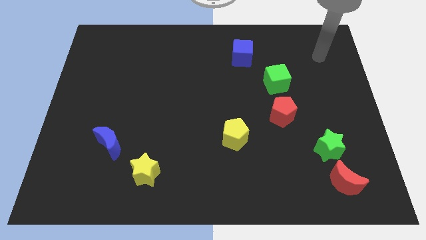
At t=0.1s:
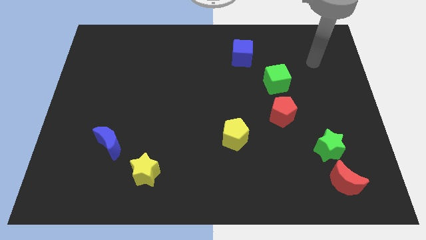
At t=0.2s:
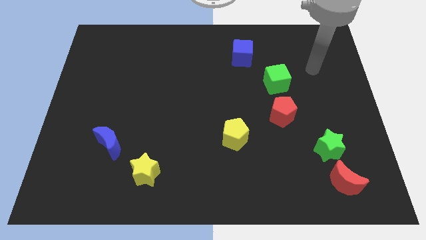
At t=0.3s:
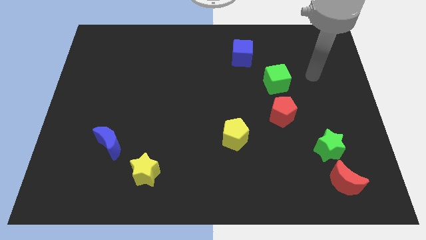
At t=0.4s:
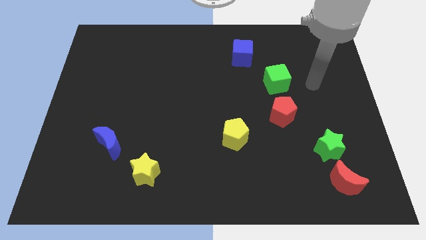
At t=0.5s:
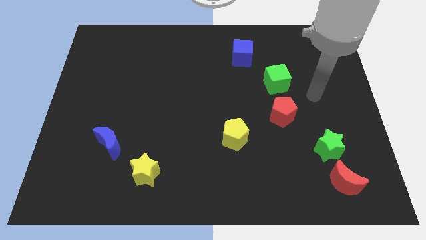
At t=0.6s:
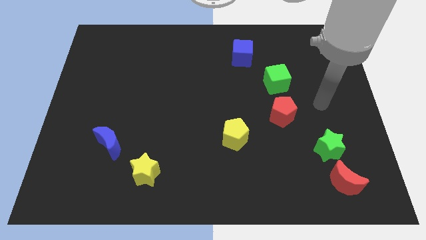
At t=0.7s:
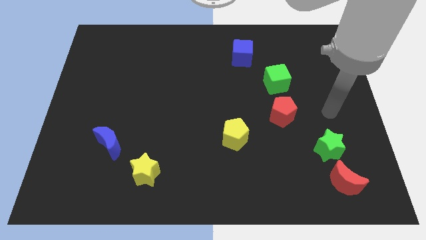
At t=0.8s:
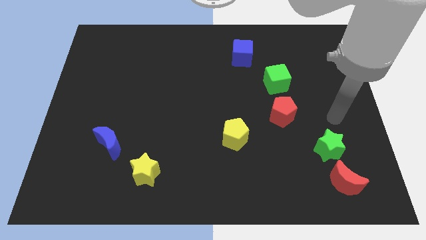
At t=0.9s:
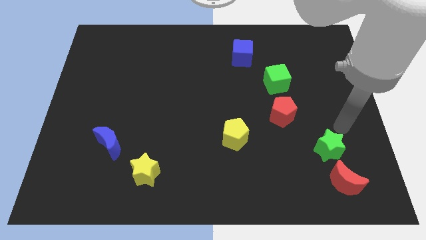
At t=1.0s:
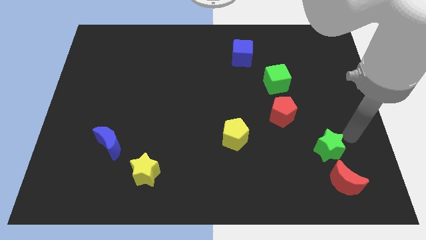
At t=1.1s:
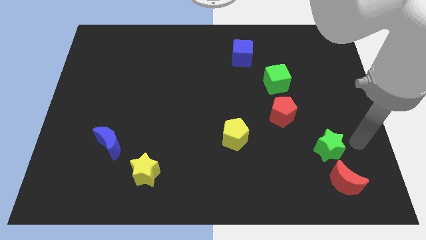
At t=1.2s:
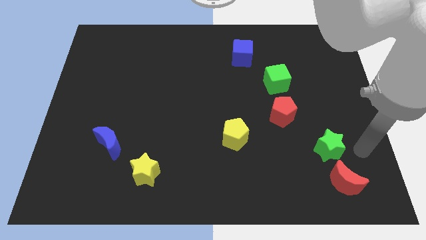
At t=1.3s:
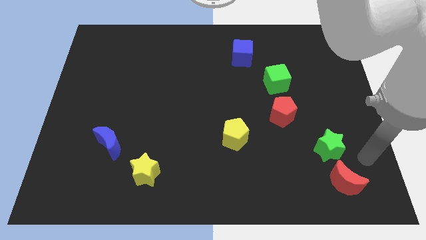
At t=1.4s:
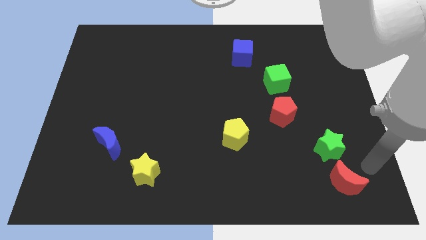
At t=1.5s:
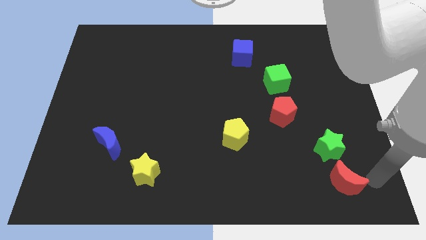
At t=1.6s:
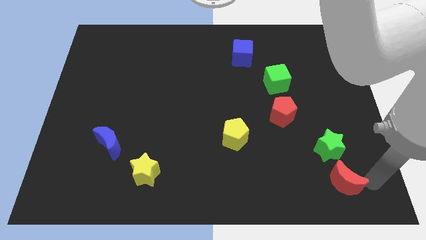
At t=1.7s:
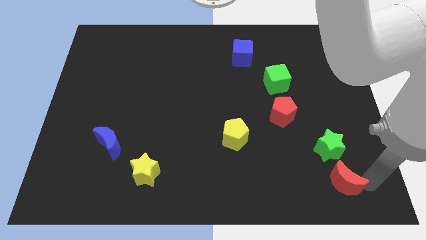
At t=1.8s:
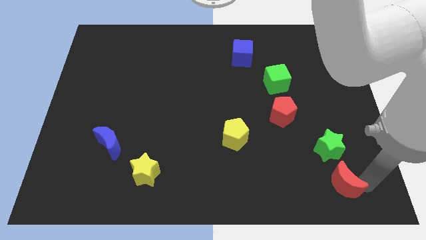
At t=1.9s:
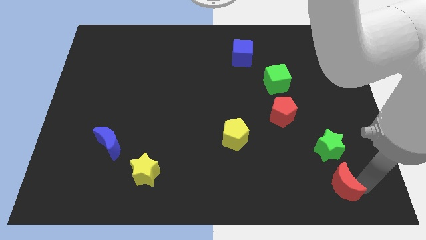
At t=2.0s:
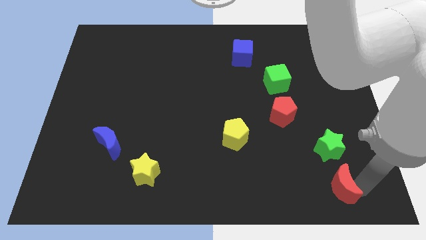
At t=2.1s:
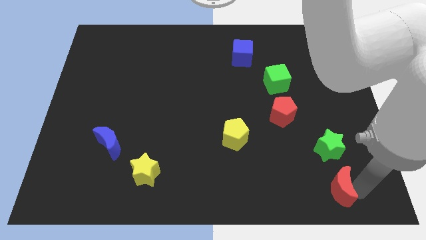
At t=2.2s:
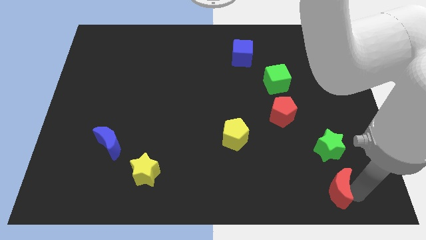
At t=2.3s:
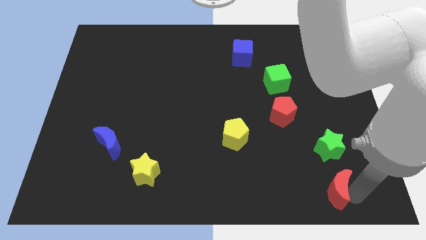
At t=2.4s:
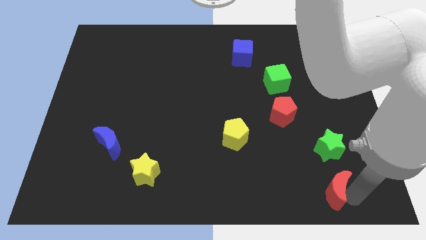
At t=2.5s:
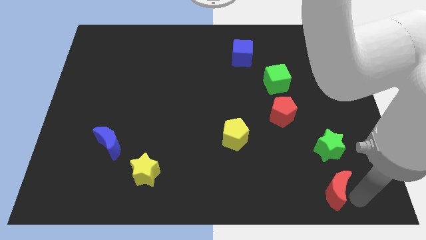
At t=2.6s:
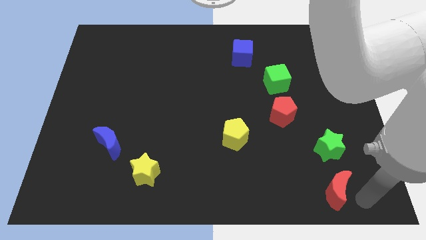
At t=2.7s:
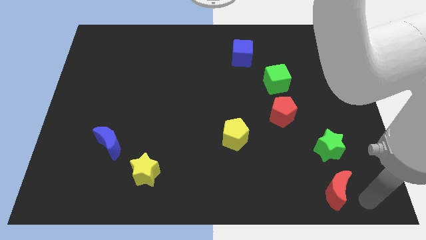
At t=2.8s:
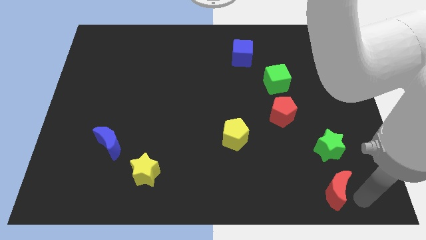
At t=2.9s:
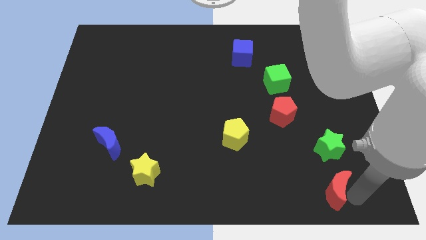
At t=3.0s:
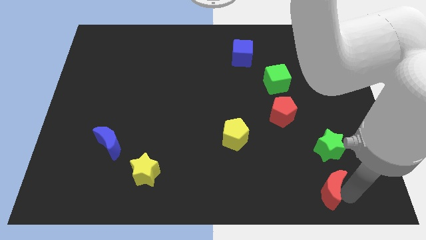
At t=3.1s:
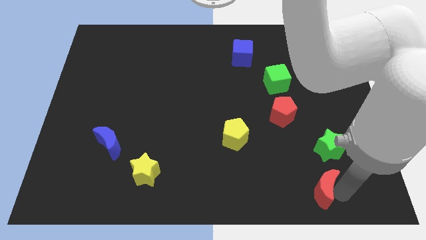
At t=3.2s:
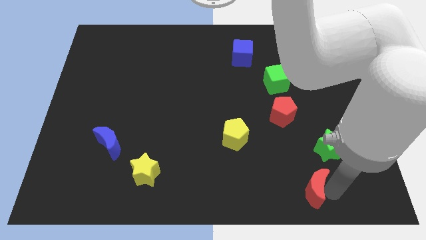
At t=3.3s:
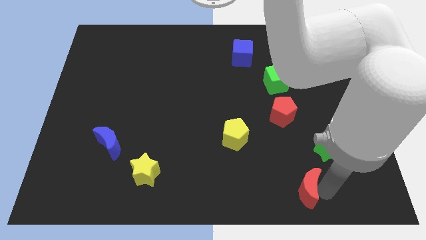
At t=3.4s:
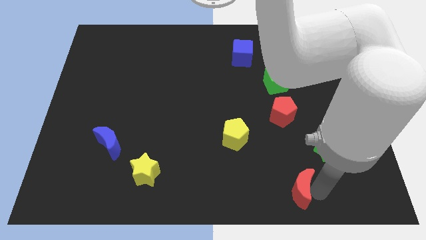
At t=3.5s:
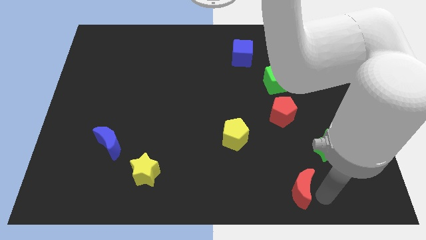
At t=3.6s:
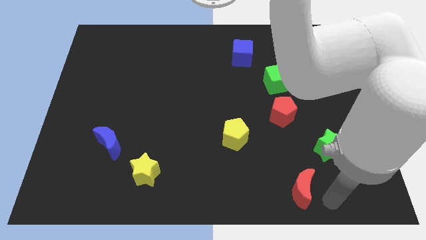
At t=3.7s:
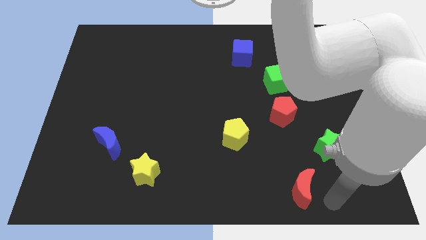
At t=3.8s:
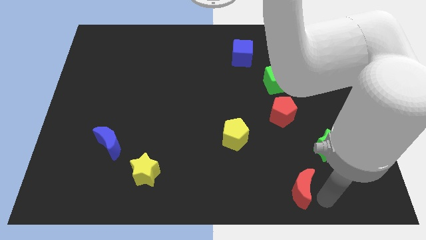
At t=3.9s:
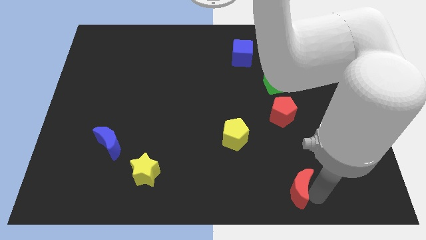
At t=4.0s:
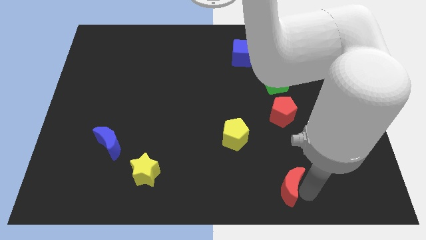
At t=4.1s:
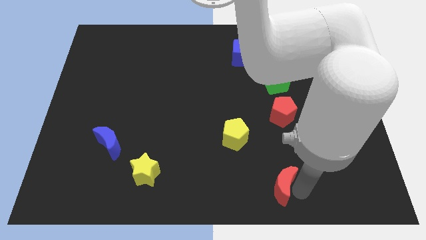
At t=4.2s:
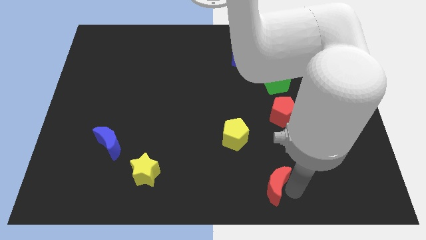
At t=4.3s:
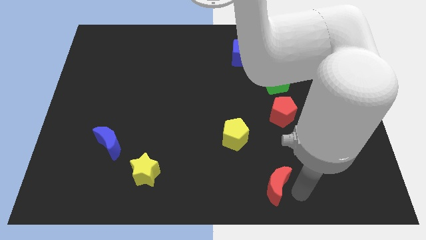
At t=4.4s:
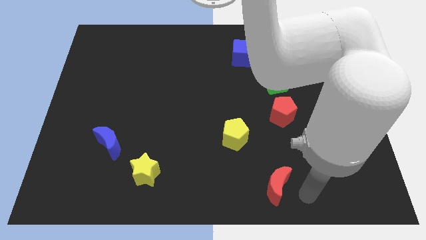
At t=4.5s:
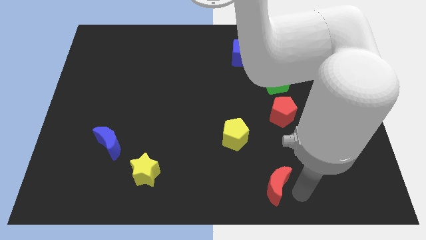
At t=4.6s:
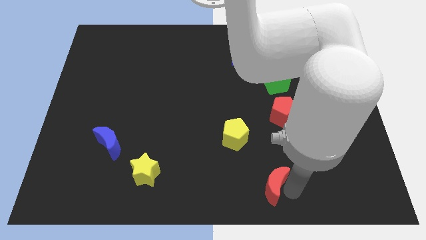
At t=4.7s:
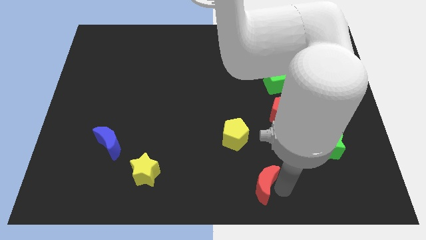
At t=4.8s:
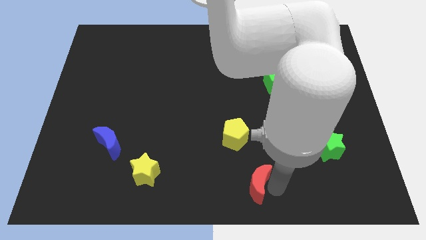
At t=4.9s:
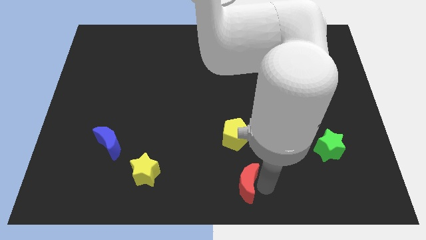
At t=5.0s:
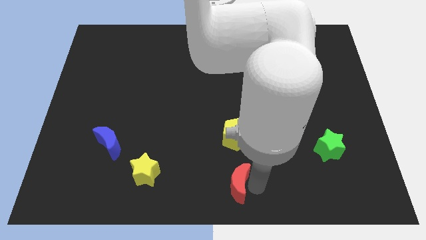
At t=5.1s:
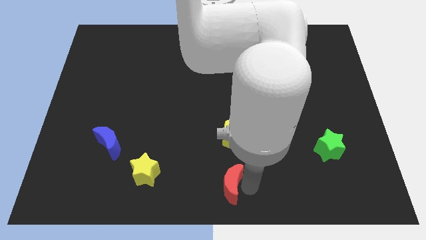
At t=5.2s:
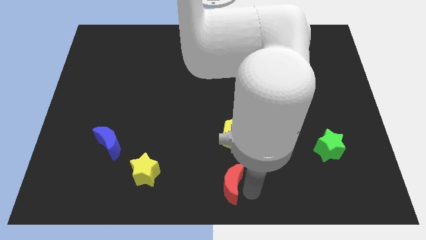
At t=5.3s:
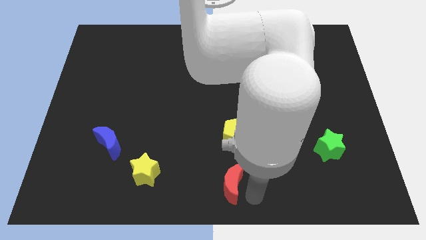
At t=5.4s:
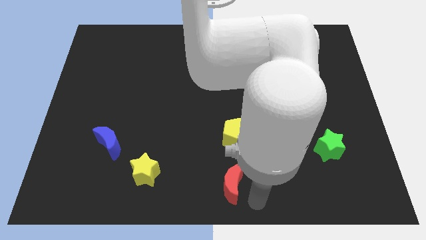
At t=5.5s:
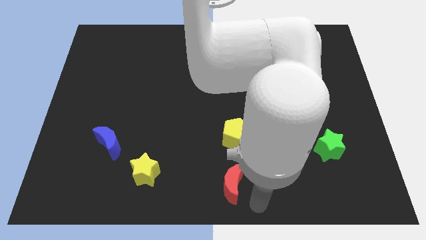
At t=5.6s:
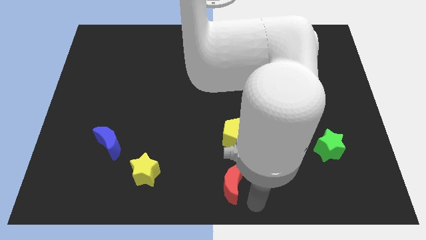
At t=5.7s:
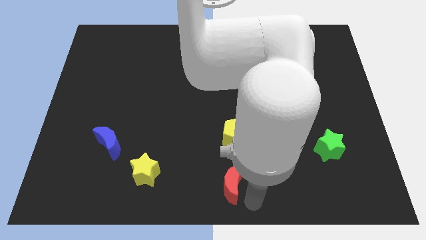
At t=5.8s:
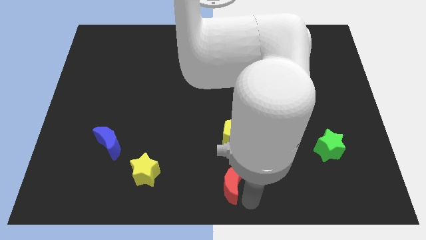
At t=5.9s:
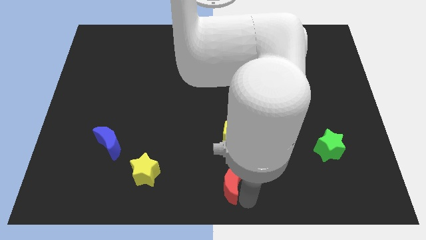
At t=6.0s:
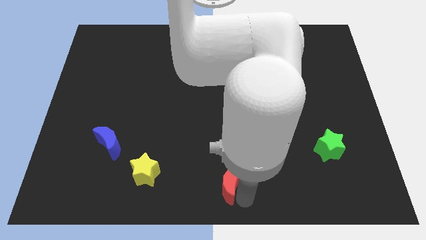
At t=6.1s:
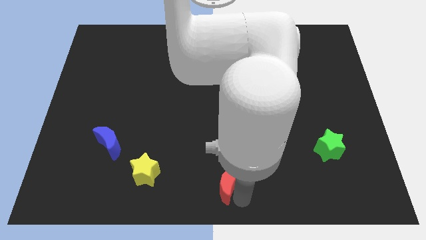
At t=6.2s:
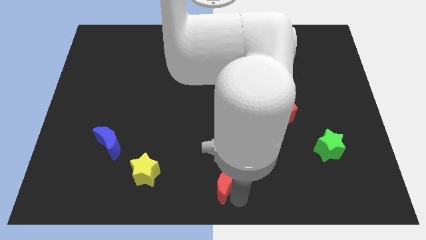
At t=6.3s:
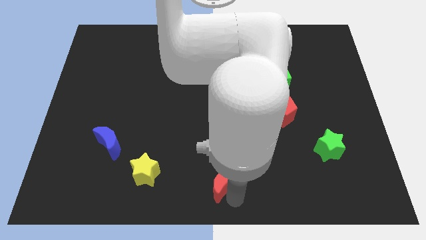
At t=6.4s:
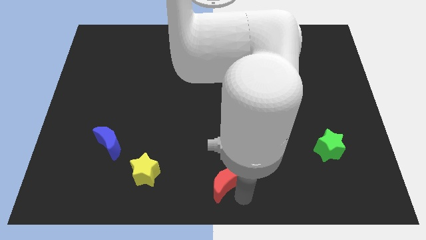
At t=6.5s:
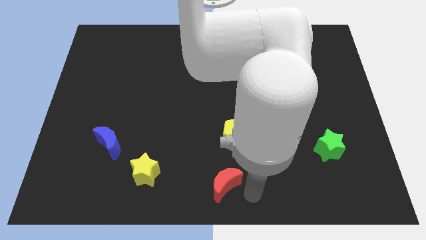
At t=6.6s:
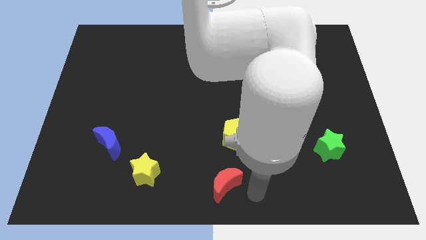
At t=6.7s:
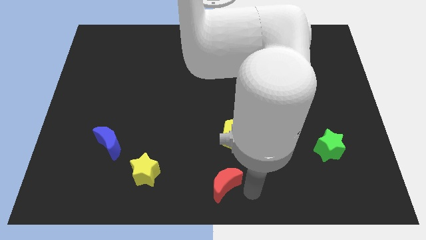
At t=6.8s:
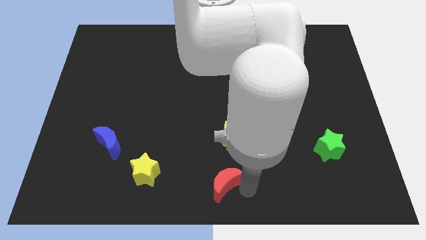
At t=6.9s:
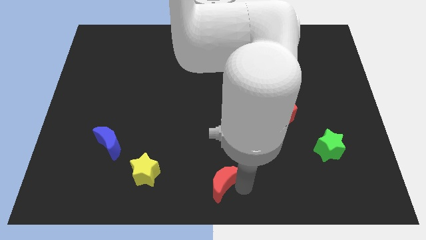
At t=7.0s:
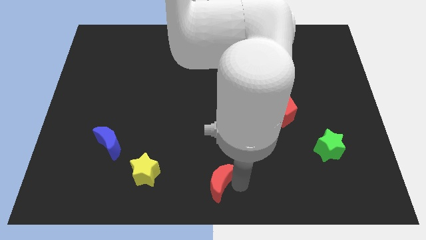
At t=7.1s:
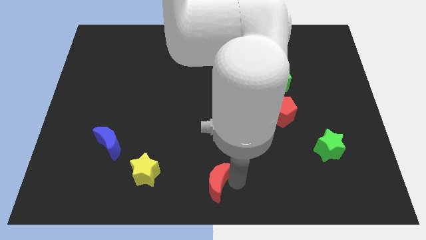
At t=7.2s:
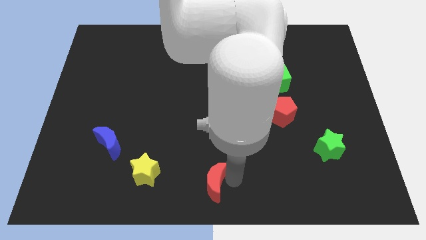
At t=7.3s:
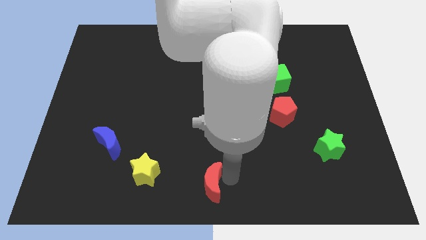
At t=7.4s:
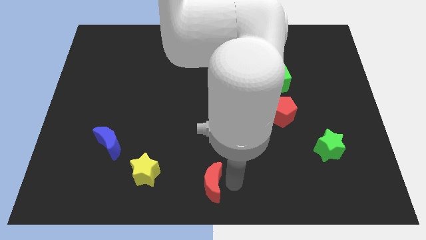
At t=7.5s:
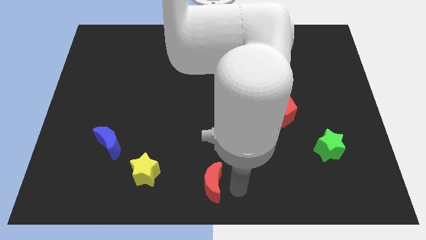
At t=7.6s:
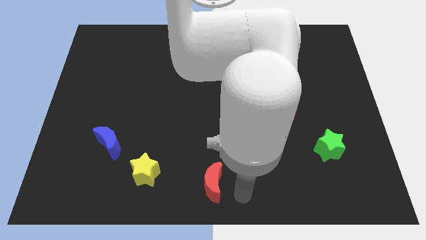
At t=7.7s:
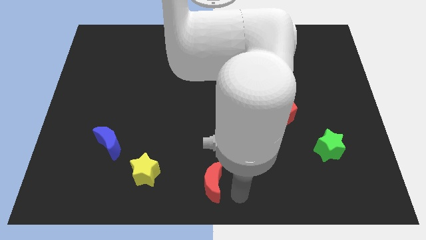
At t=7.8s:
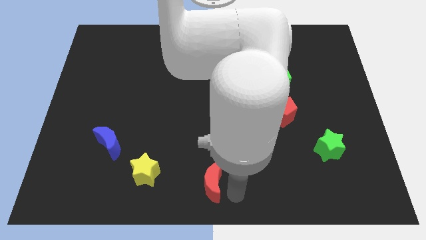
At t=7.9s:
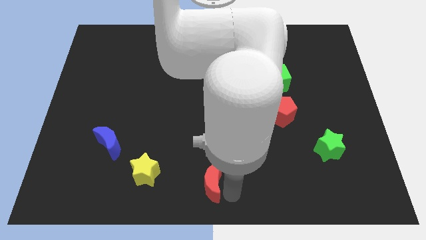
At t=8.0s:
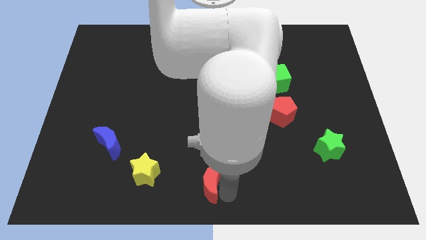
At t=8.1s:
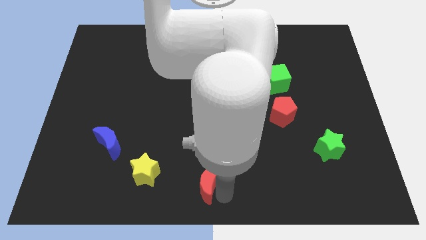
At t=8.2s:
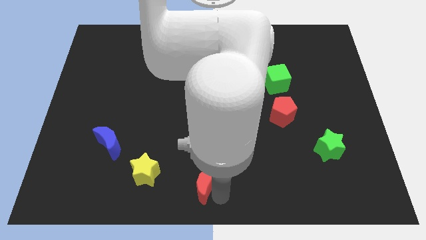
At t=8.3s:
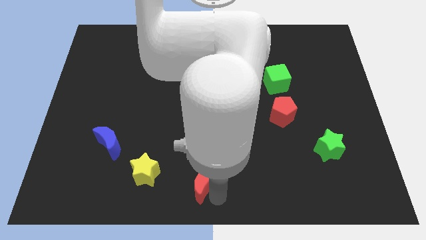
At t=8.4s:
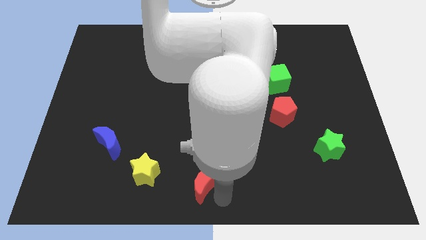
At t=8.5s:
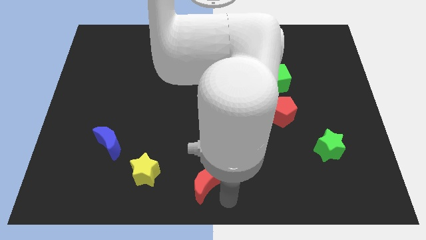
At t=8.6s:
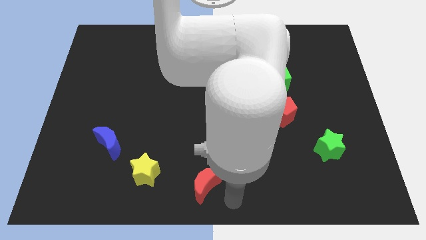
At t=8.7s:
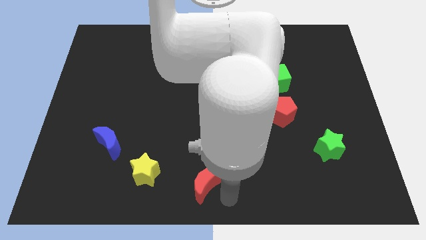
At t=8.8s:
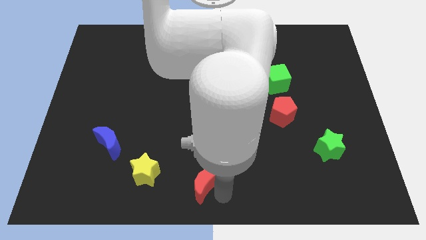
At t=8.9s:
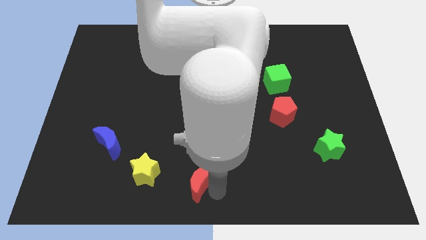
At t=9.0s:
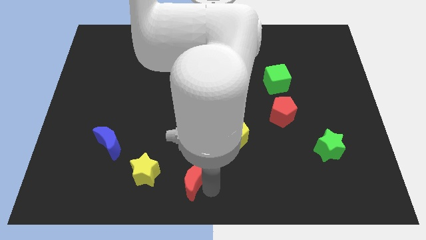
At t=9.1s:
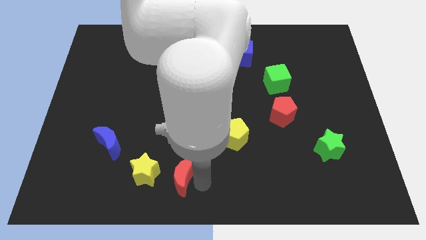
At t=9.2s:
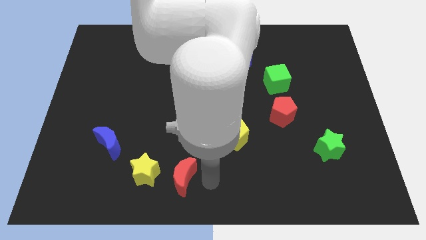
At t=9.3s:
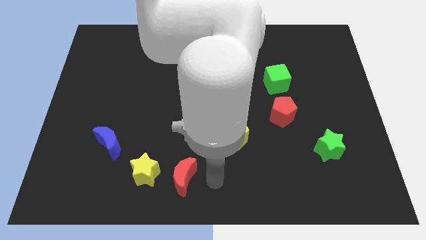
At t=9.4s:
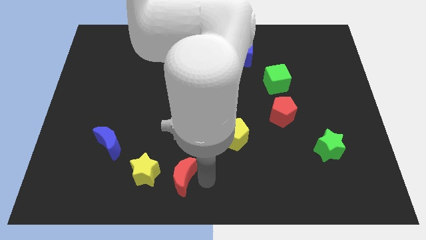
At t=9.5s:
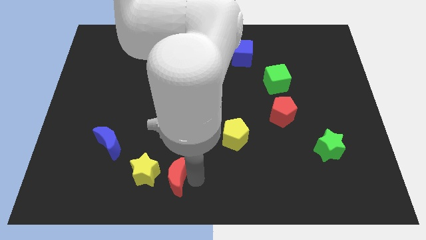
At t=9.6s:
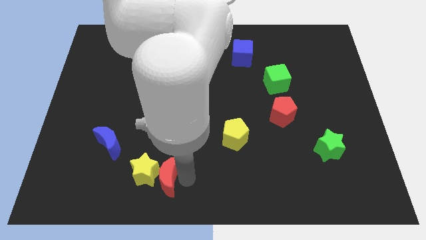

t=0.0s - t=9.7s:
move the red moon close to the yellow star
